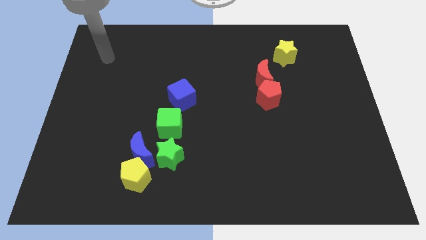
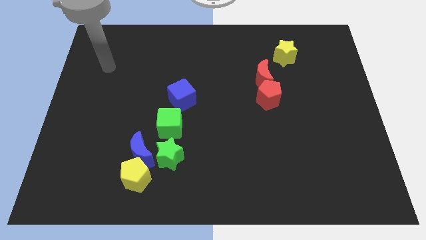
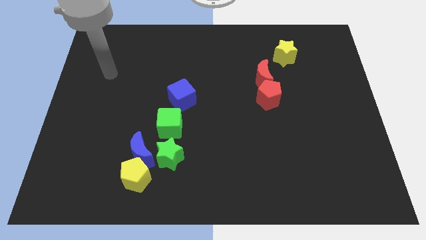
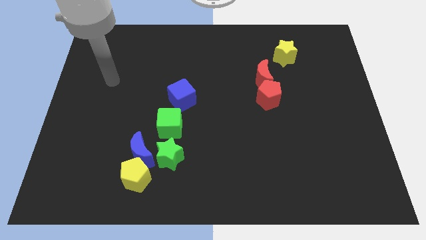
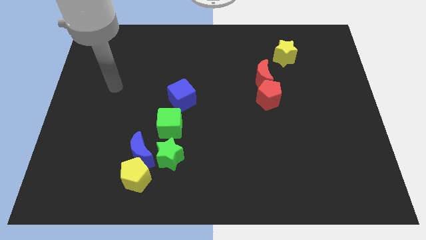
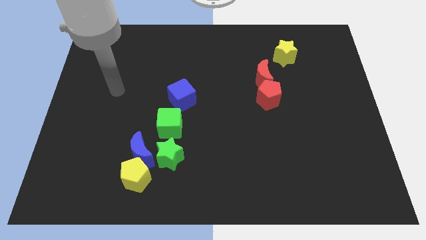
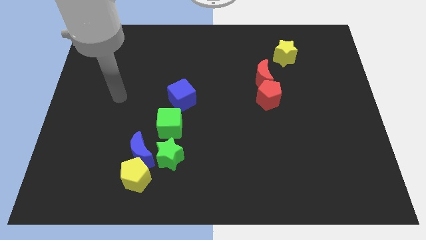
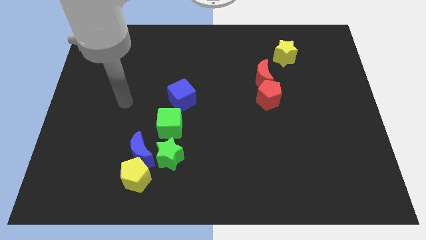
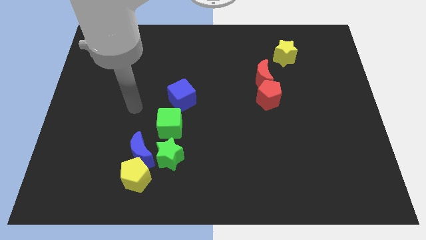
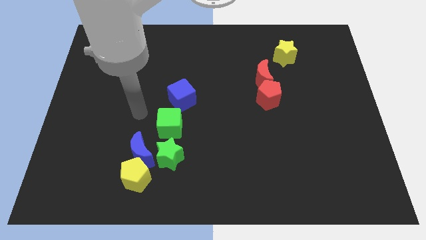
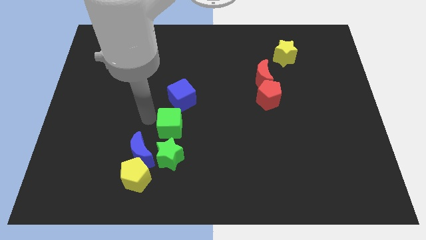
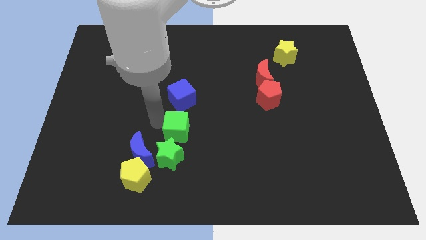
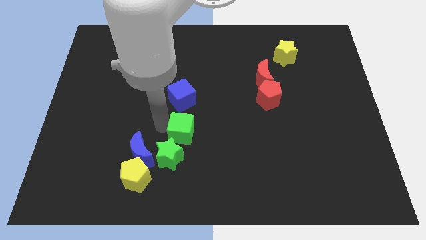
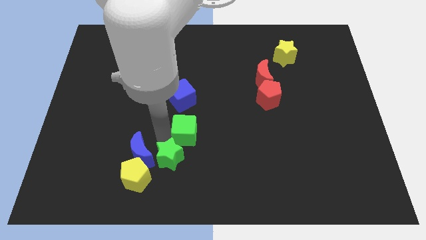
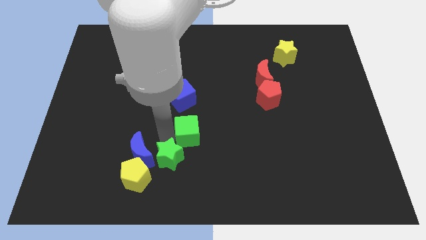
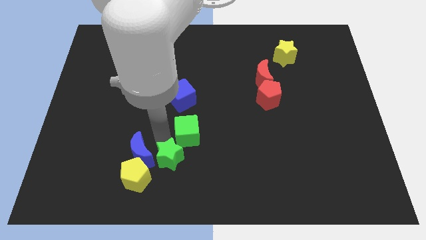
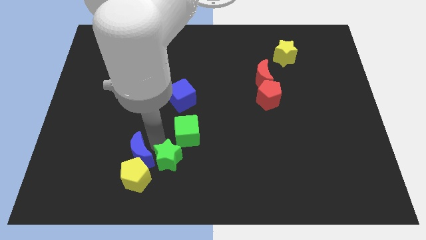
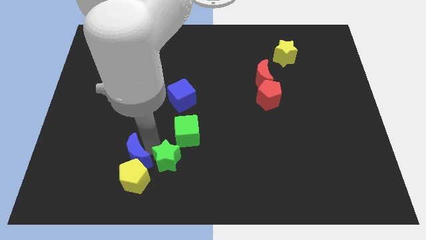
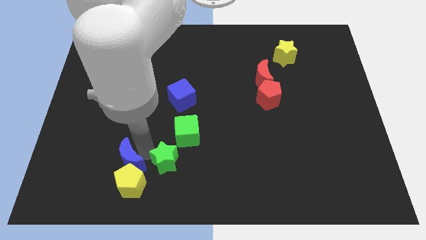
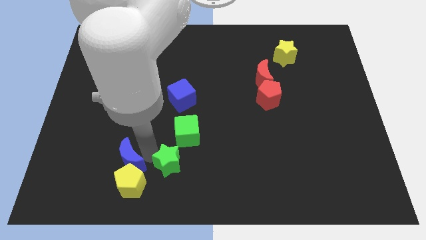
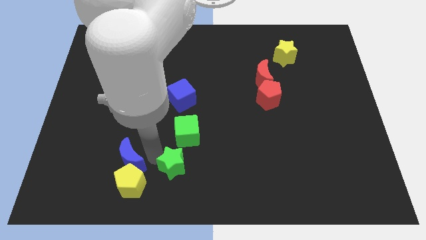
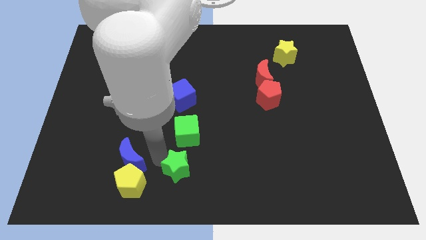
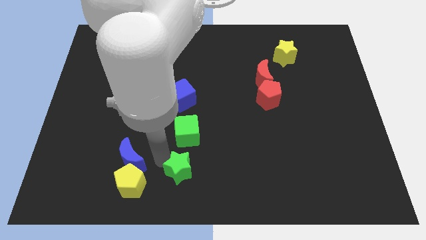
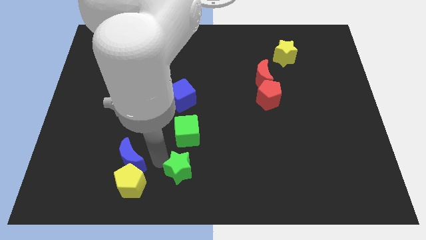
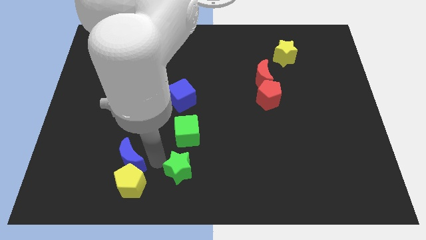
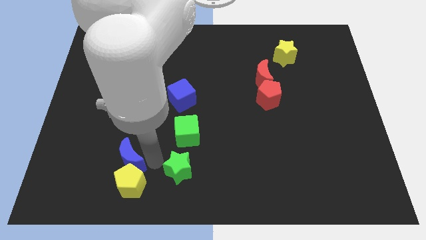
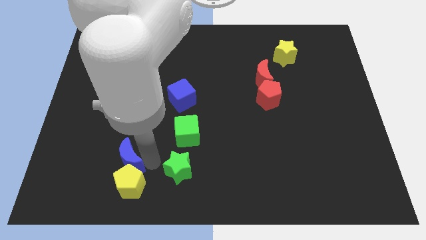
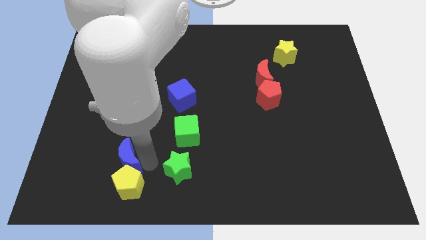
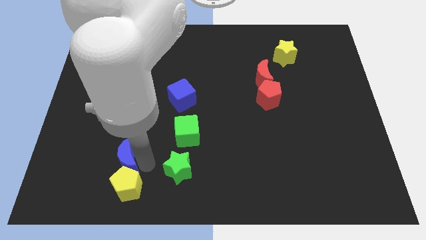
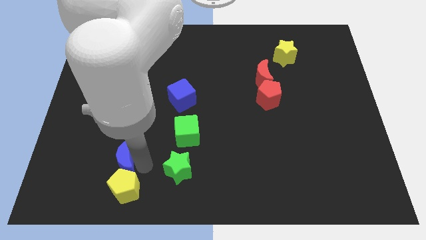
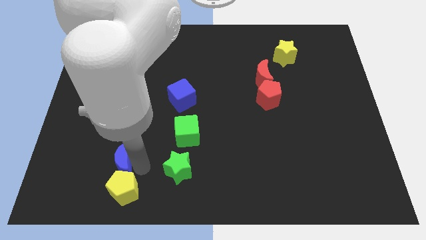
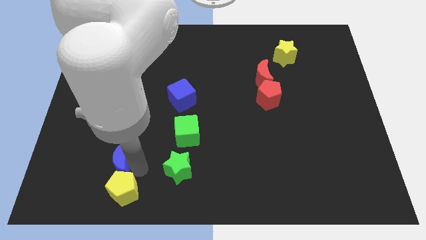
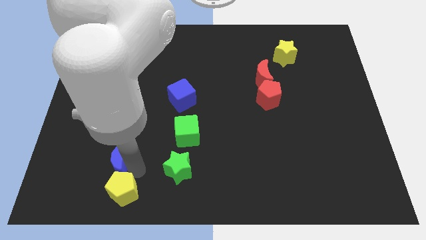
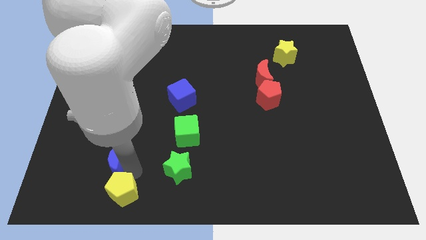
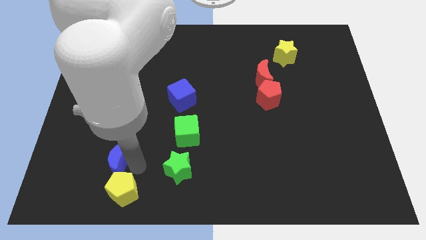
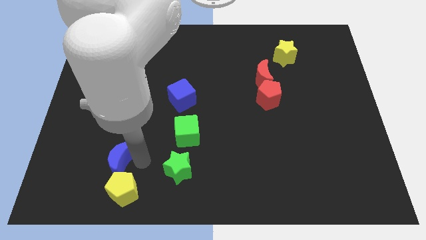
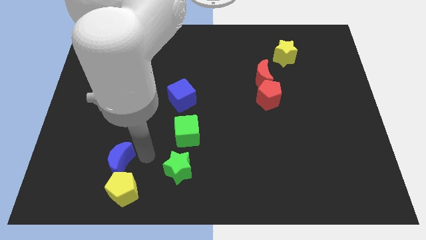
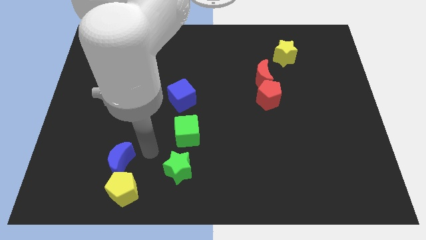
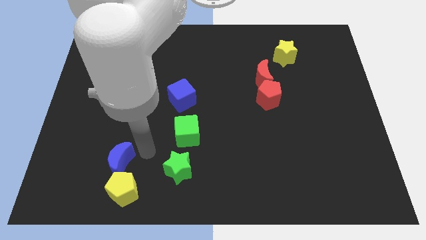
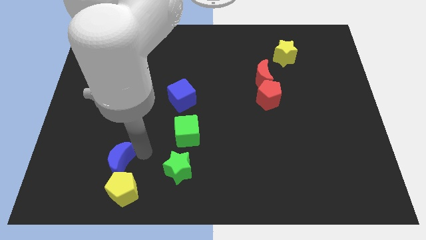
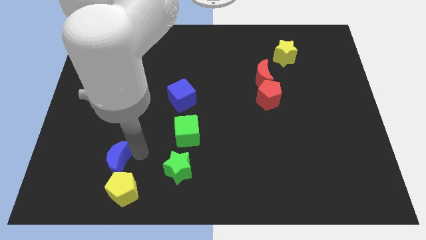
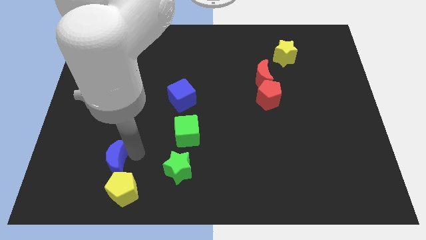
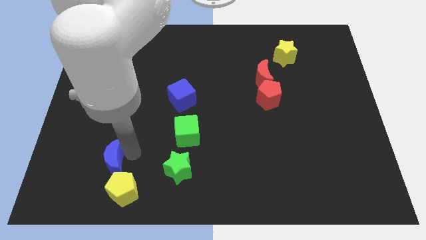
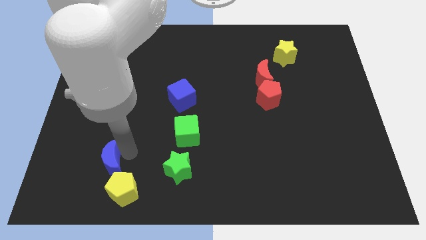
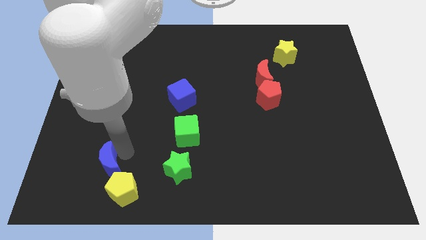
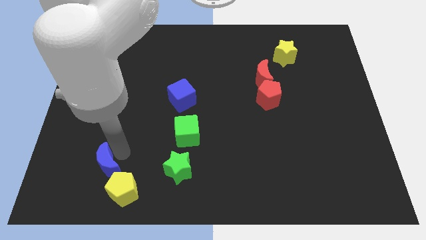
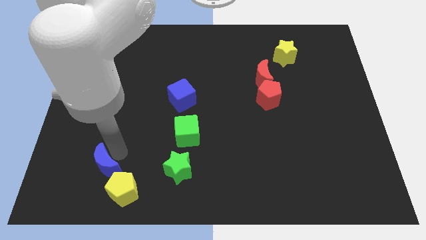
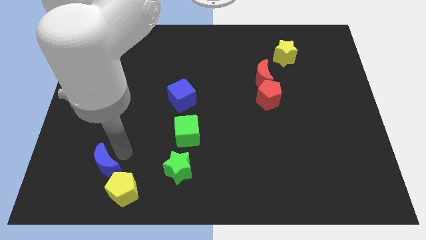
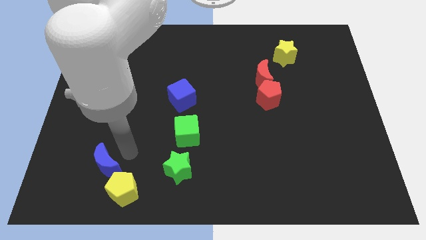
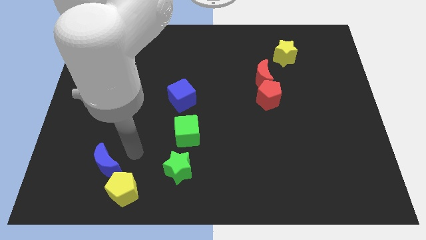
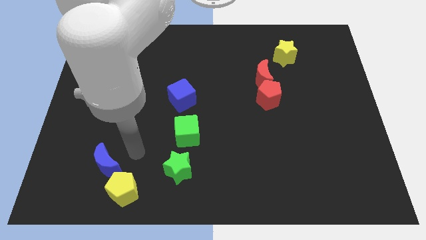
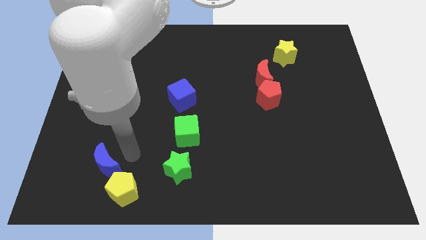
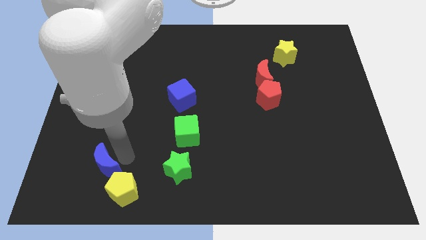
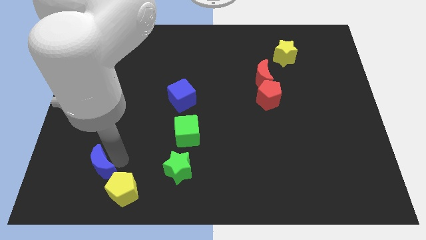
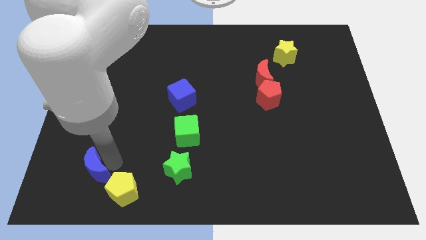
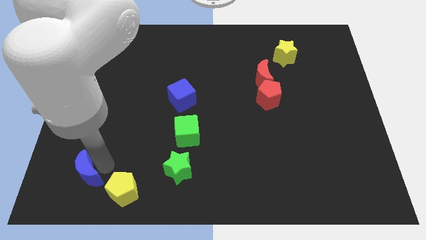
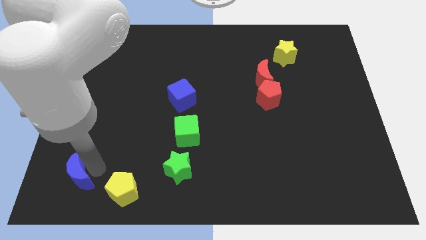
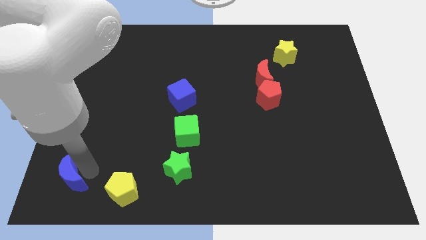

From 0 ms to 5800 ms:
put the blue moon to the lower left corner

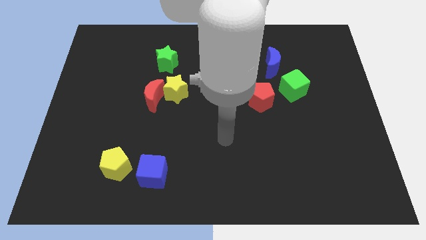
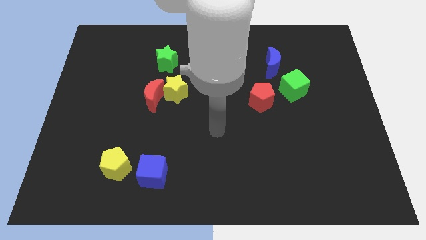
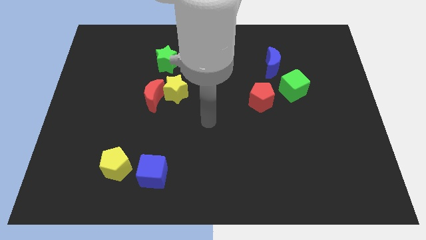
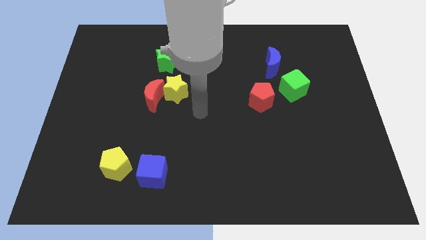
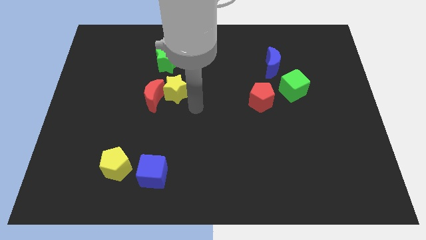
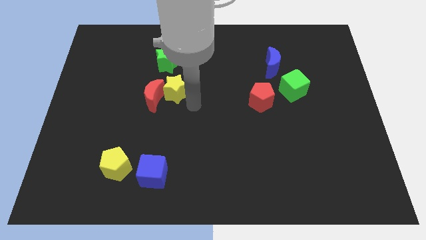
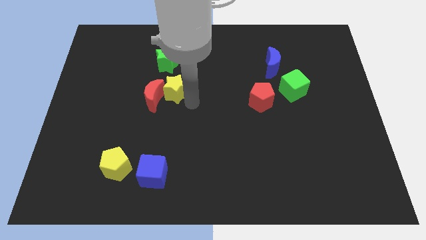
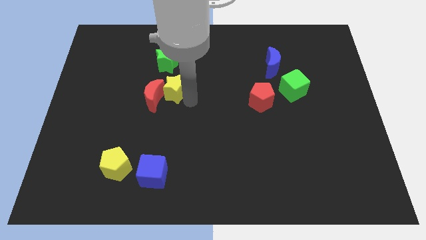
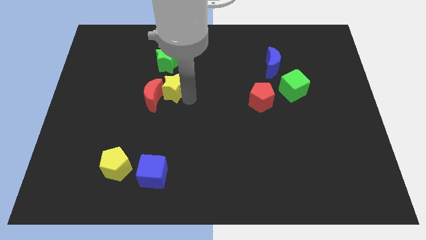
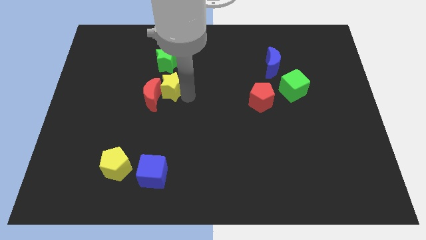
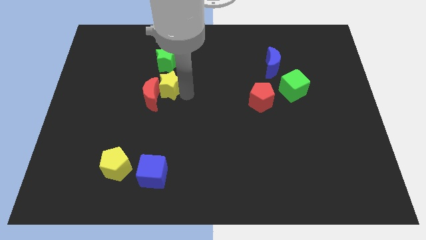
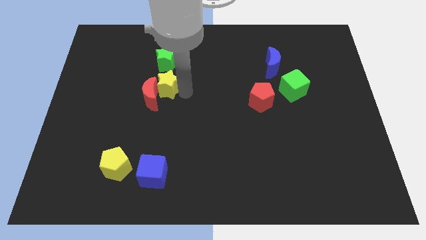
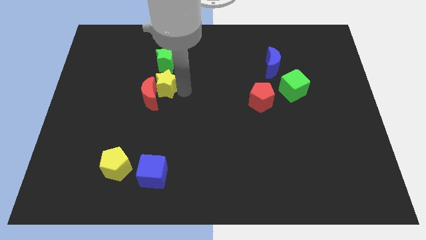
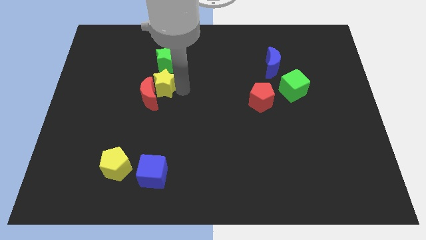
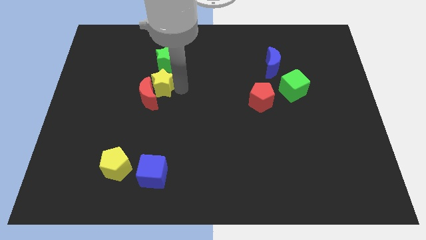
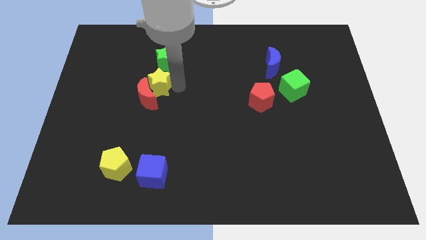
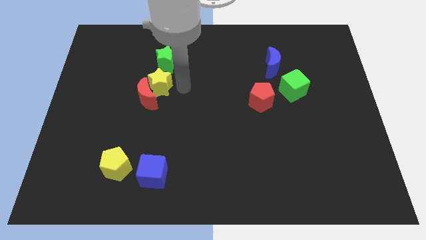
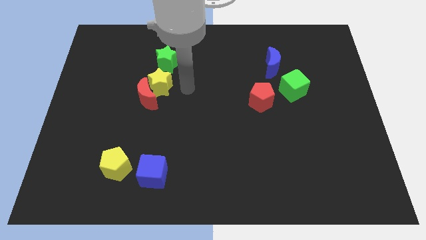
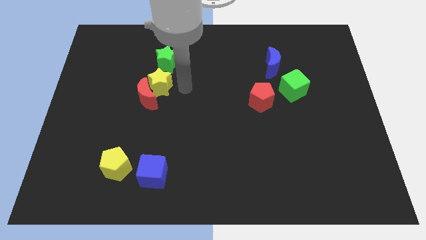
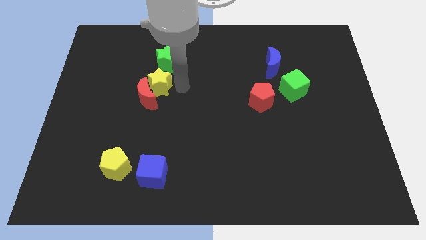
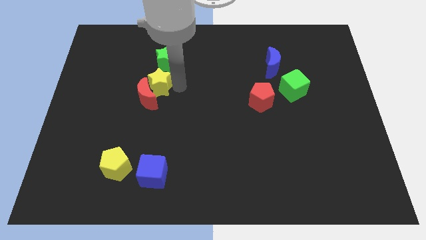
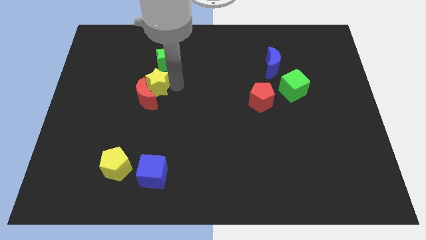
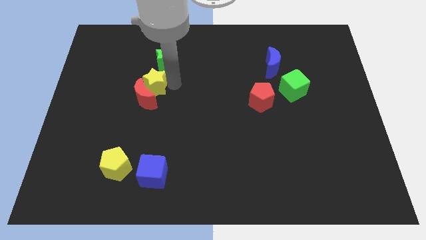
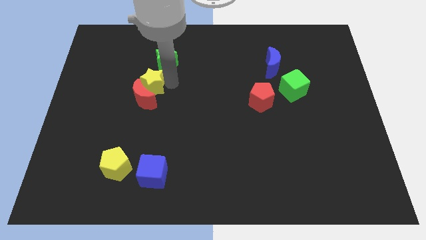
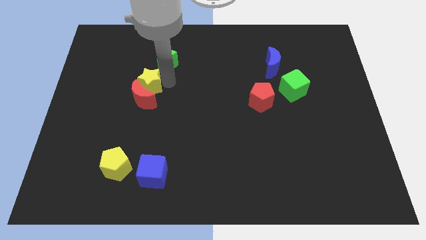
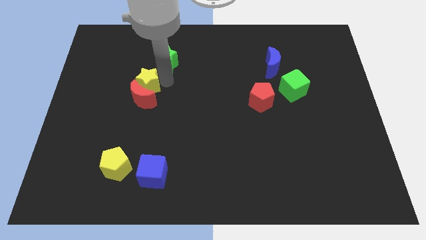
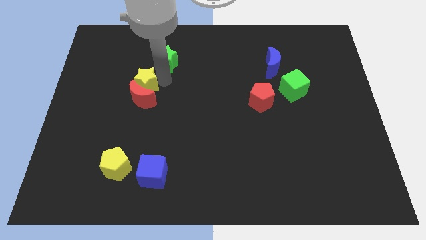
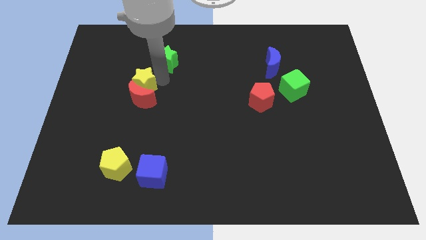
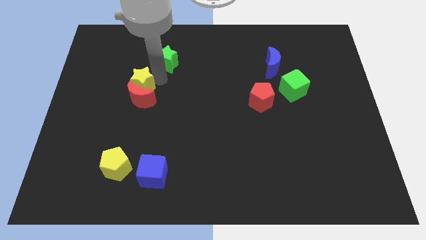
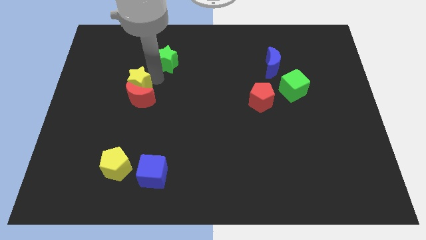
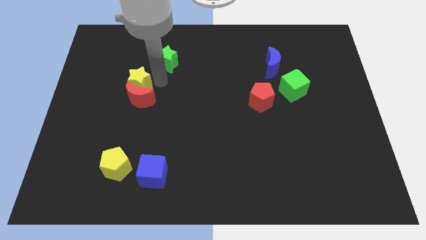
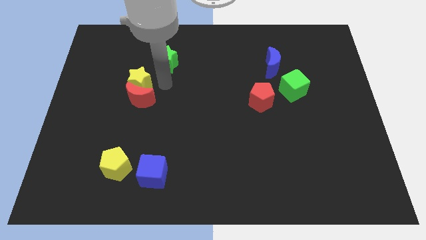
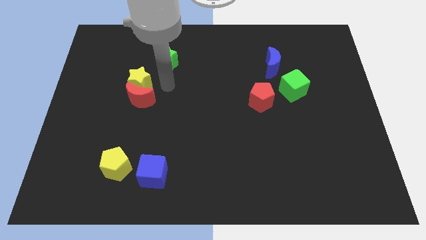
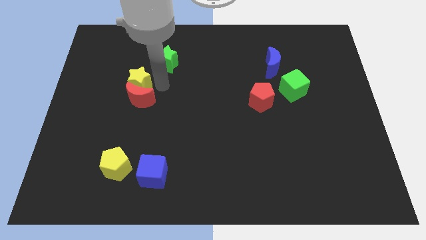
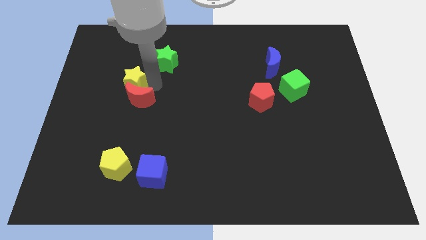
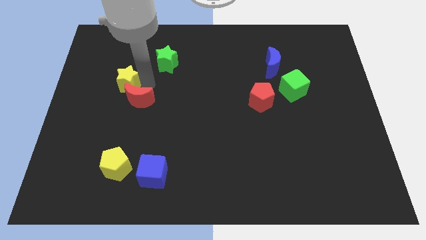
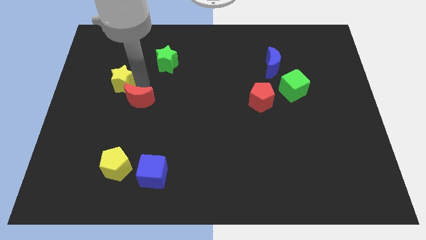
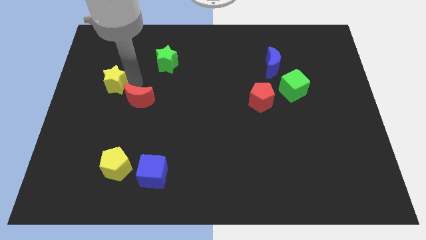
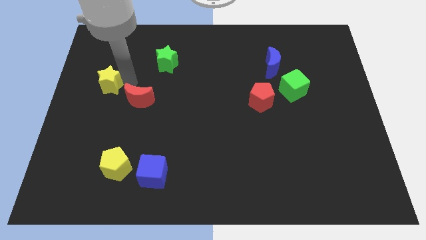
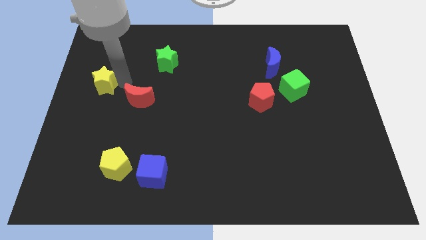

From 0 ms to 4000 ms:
push the yellow star to the left side
